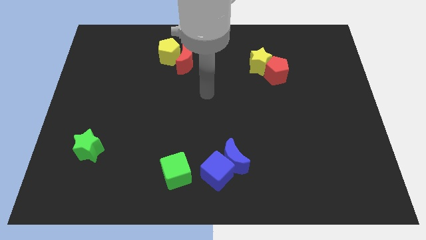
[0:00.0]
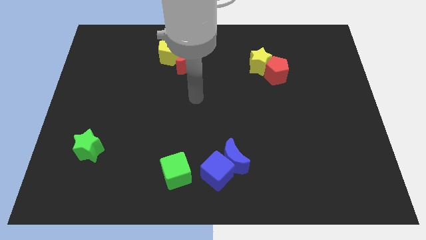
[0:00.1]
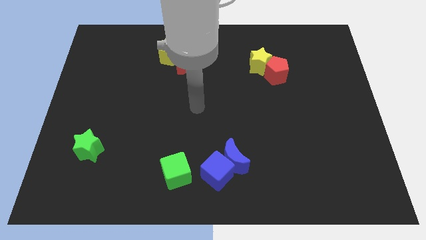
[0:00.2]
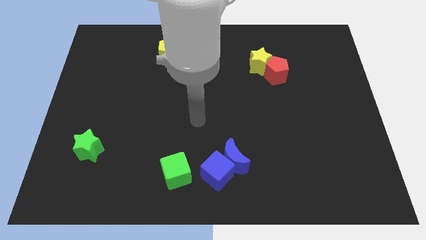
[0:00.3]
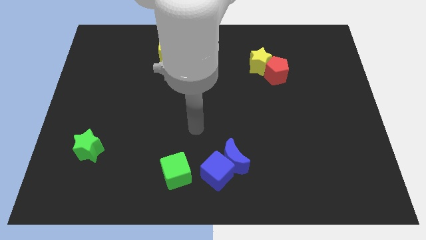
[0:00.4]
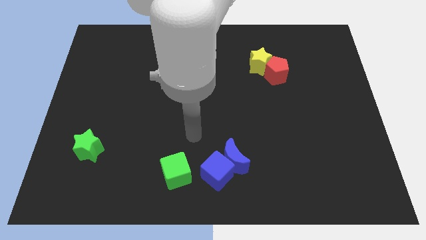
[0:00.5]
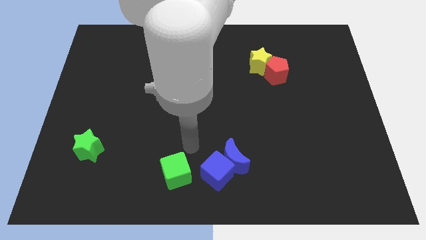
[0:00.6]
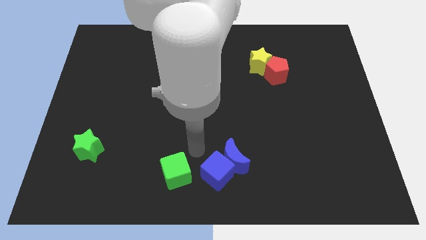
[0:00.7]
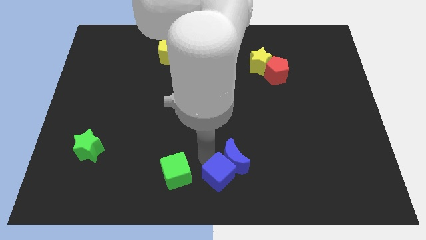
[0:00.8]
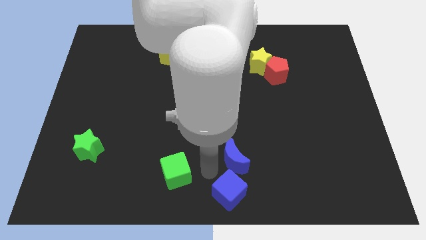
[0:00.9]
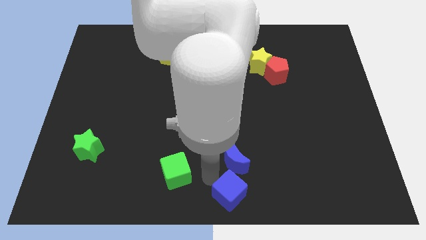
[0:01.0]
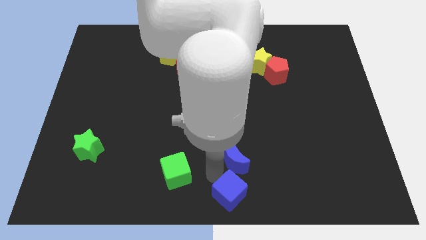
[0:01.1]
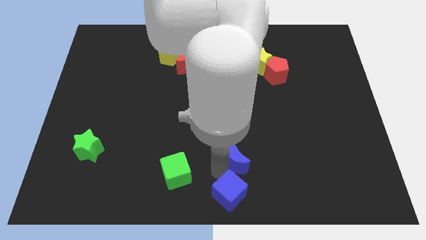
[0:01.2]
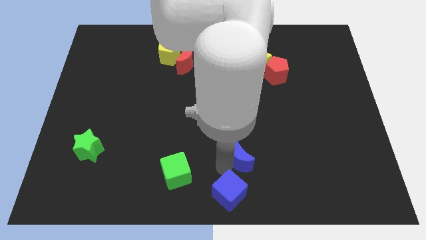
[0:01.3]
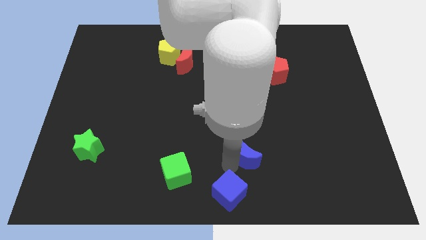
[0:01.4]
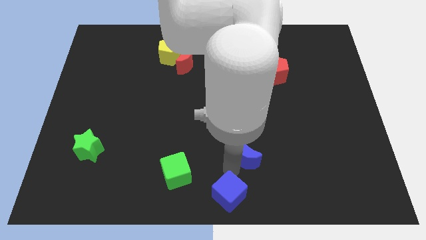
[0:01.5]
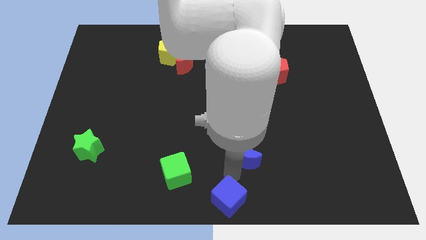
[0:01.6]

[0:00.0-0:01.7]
separate the blue moon from the blue cube

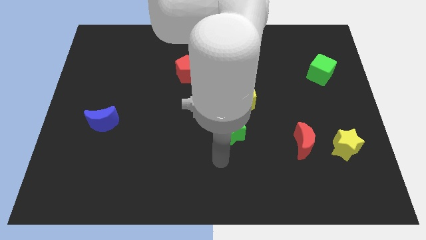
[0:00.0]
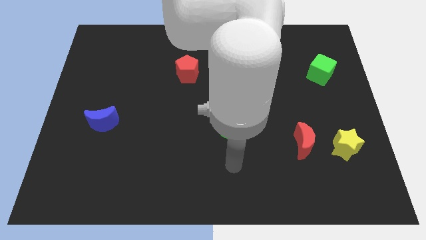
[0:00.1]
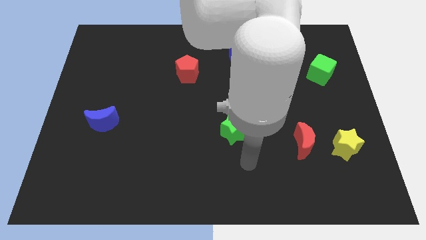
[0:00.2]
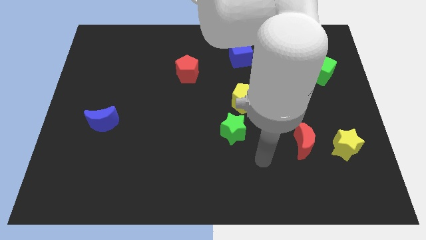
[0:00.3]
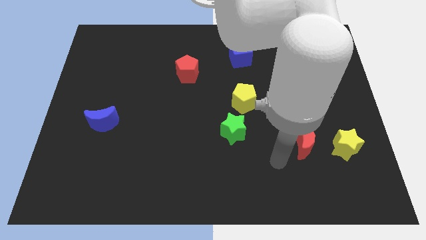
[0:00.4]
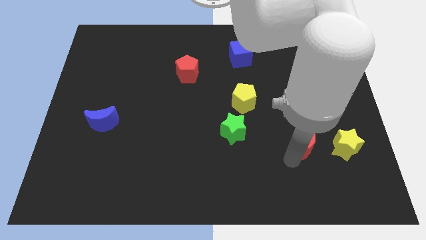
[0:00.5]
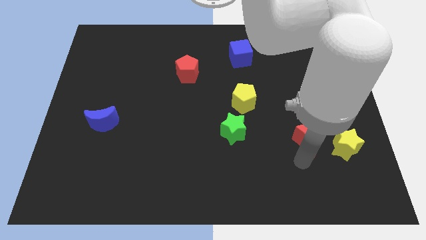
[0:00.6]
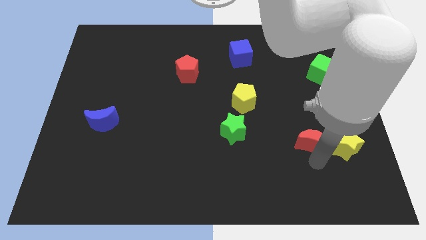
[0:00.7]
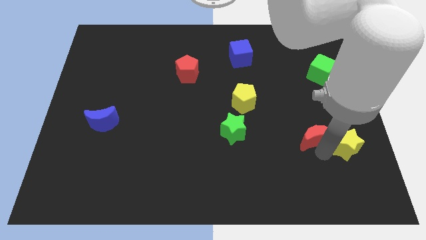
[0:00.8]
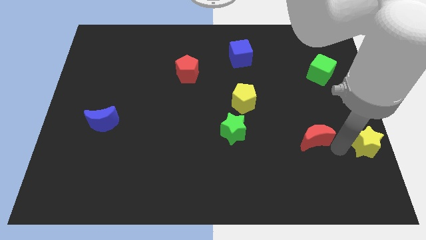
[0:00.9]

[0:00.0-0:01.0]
move the red moon away from the yellow star

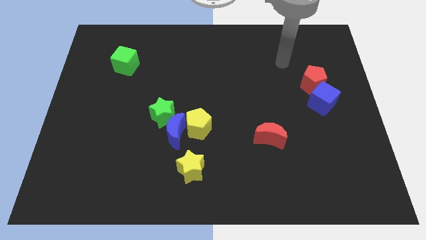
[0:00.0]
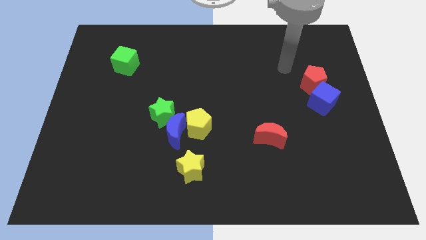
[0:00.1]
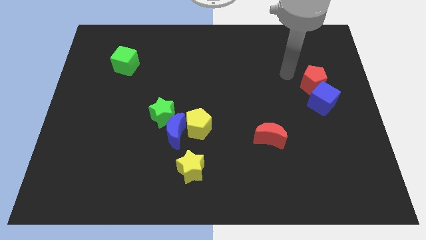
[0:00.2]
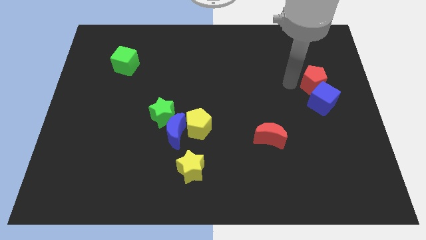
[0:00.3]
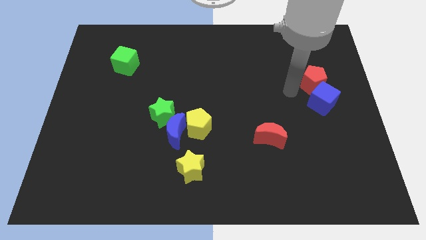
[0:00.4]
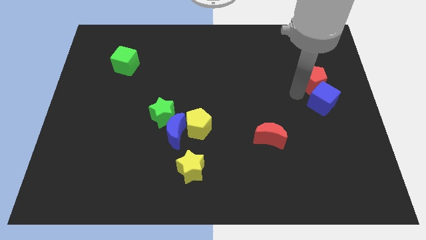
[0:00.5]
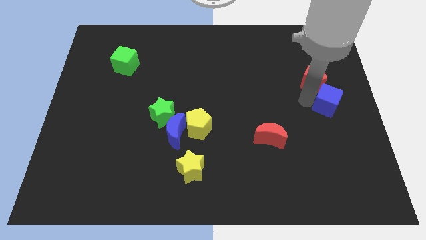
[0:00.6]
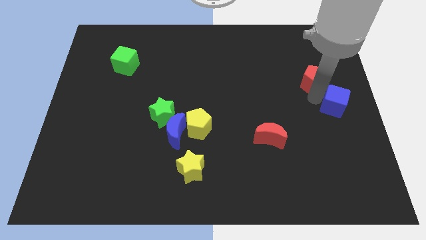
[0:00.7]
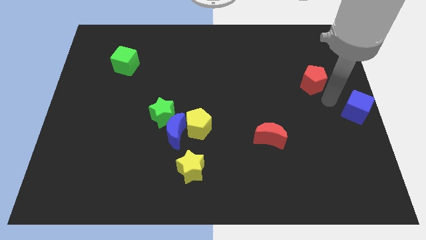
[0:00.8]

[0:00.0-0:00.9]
separate the red pentagon from the blue cube

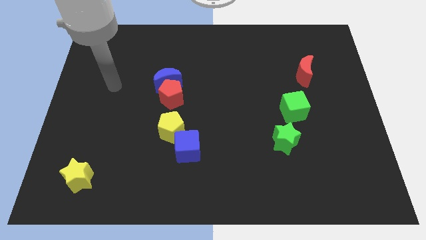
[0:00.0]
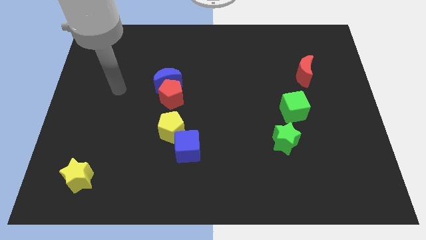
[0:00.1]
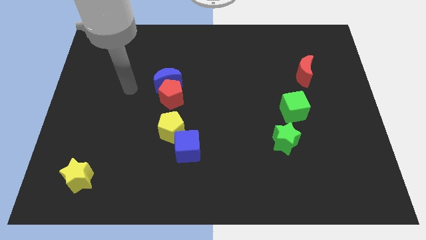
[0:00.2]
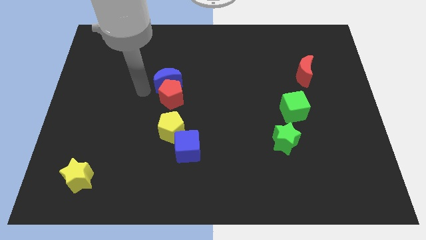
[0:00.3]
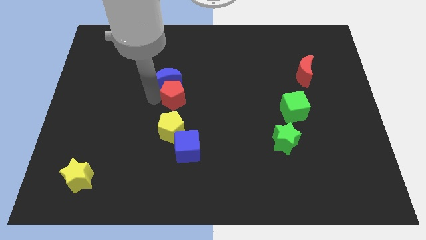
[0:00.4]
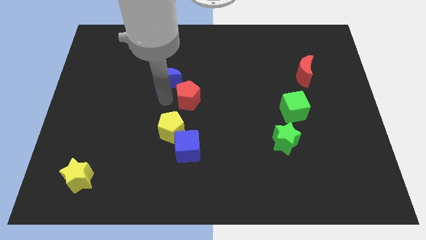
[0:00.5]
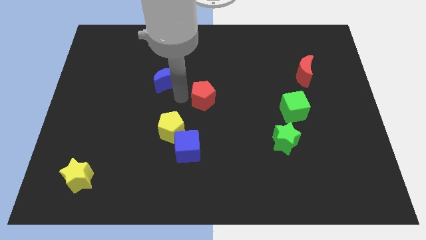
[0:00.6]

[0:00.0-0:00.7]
separate the blue moon from the red pentagon

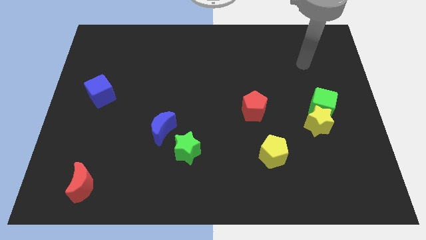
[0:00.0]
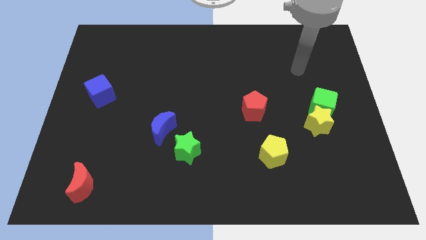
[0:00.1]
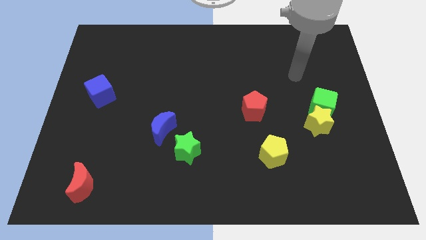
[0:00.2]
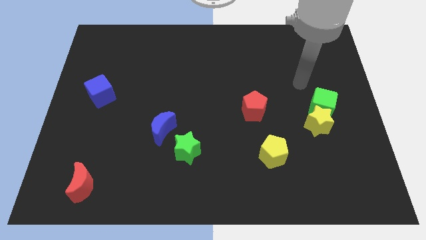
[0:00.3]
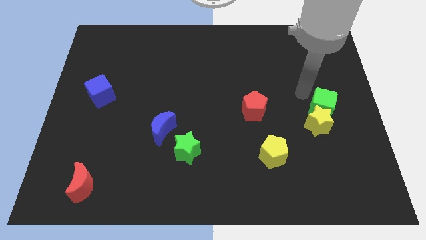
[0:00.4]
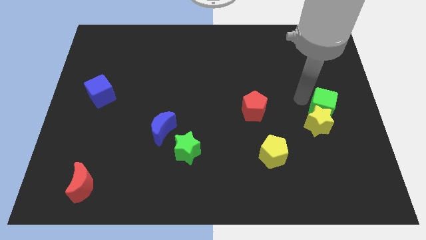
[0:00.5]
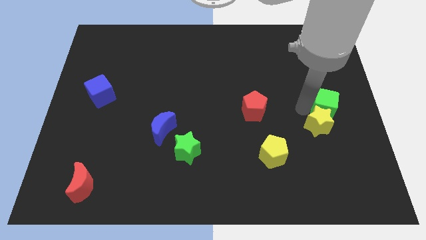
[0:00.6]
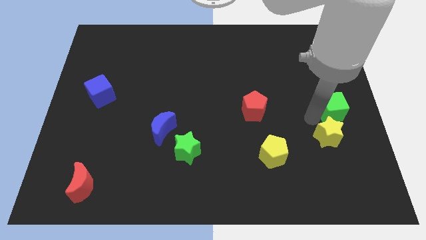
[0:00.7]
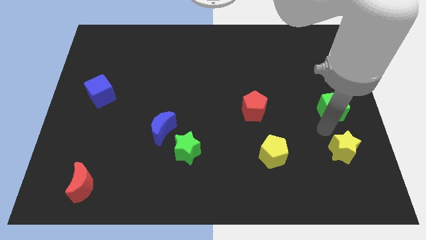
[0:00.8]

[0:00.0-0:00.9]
pull the green cube apart from the yellow star

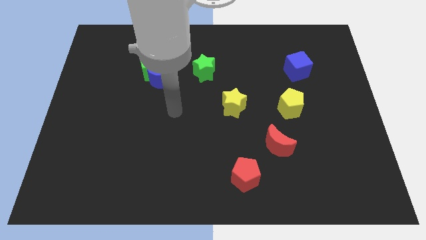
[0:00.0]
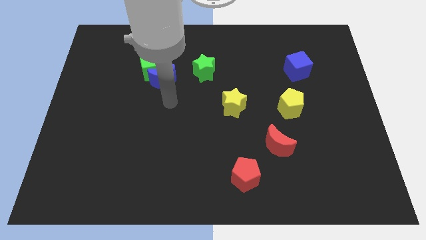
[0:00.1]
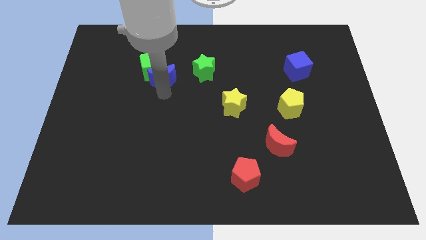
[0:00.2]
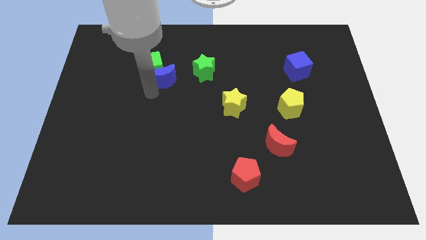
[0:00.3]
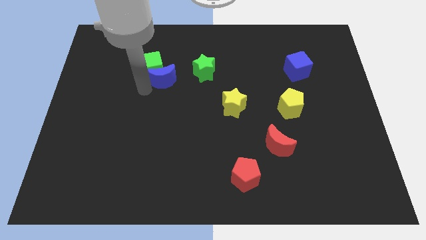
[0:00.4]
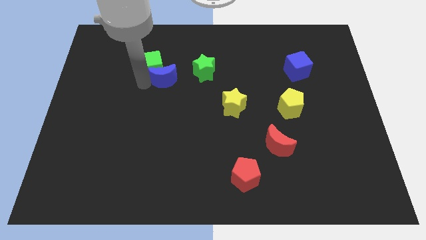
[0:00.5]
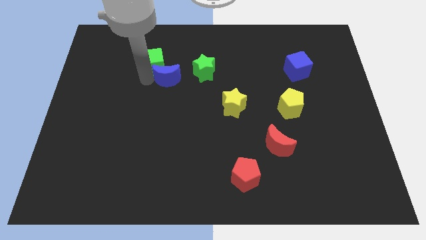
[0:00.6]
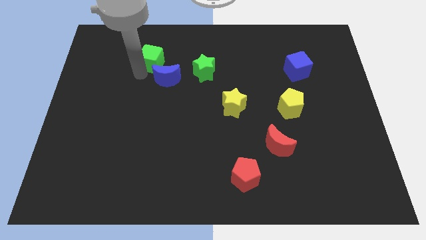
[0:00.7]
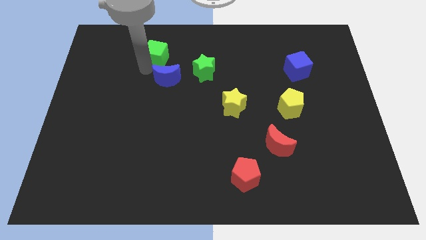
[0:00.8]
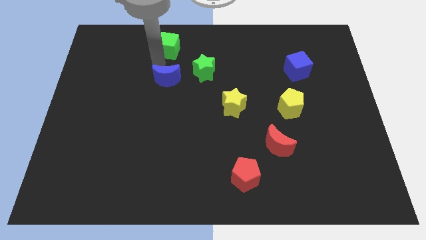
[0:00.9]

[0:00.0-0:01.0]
move the blue moon away from the green cube

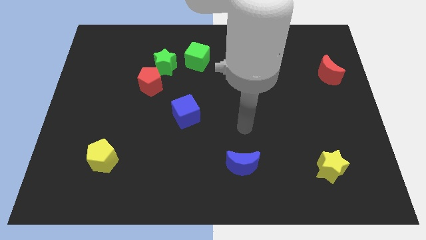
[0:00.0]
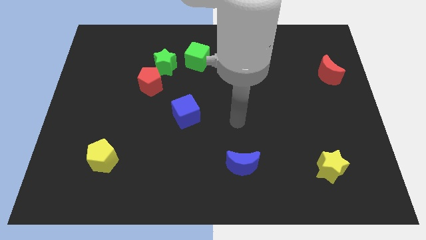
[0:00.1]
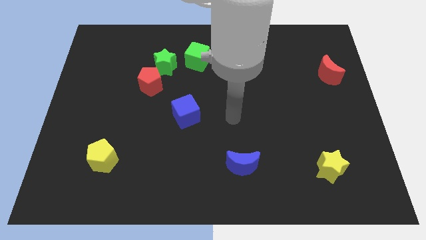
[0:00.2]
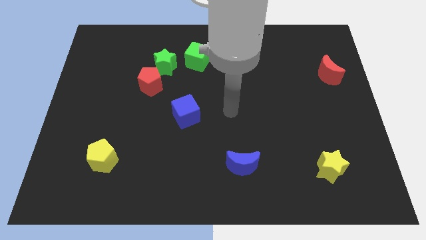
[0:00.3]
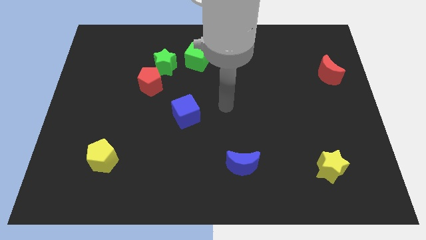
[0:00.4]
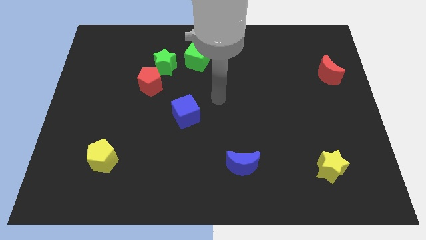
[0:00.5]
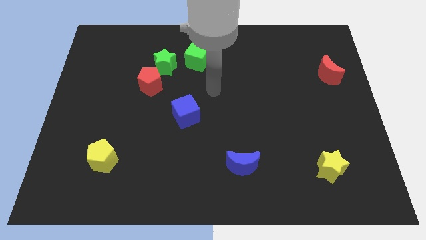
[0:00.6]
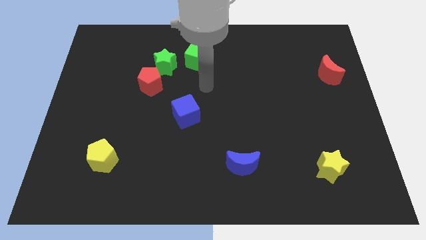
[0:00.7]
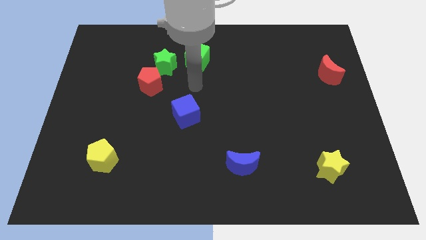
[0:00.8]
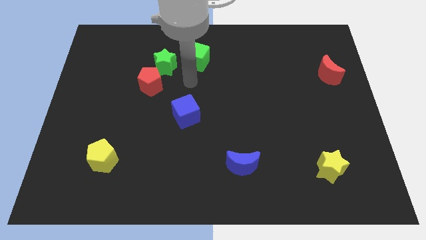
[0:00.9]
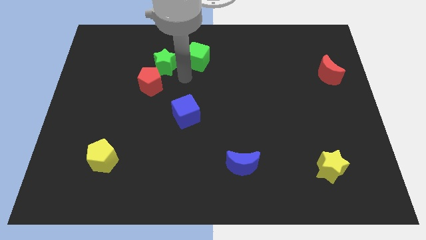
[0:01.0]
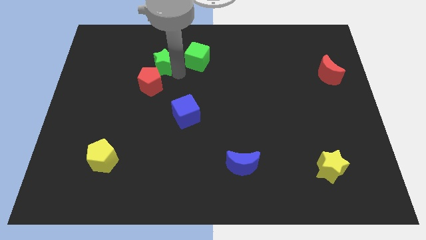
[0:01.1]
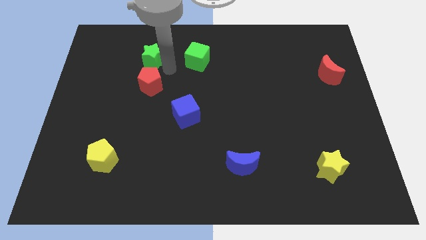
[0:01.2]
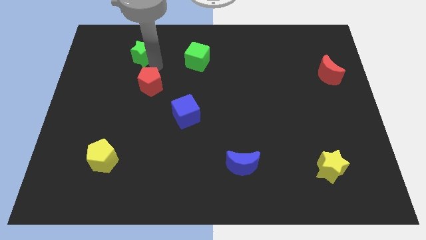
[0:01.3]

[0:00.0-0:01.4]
move the red pentagon away from the green star

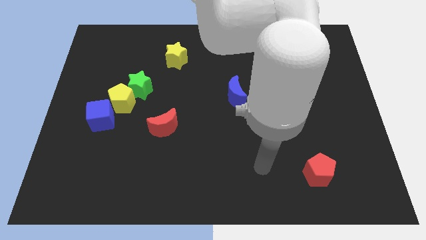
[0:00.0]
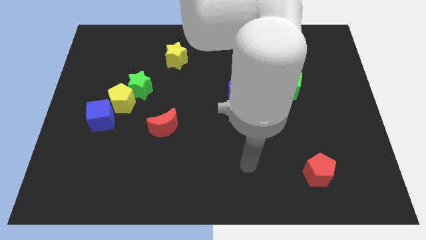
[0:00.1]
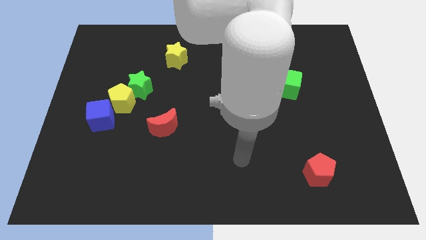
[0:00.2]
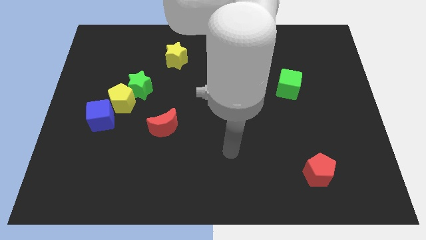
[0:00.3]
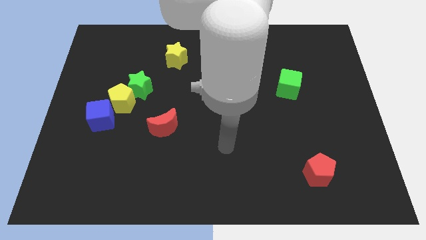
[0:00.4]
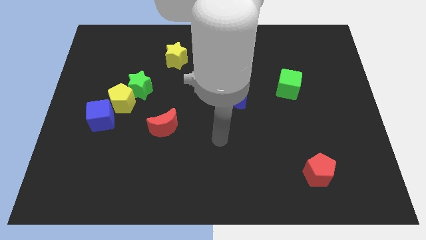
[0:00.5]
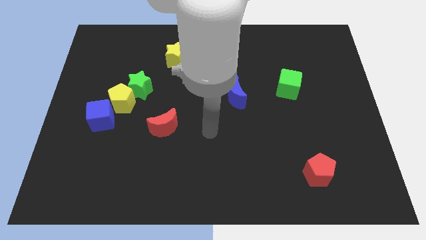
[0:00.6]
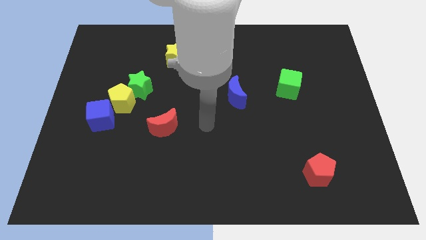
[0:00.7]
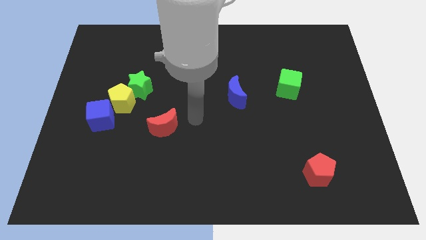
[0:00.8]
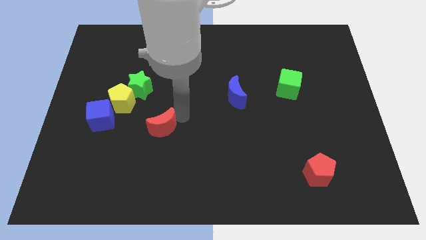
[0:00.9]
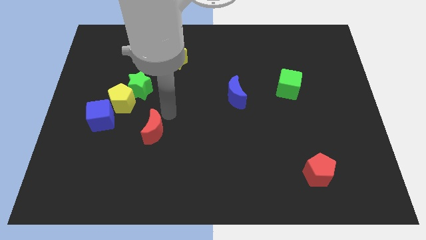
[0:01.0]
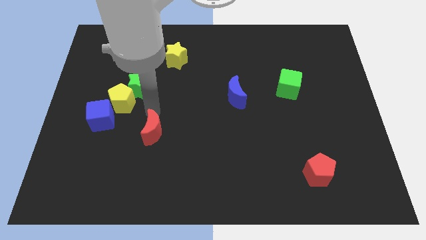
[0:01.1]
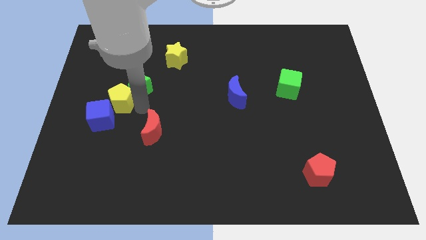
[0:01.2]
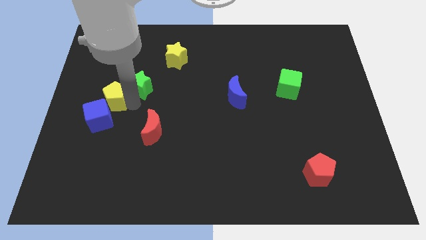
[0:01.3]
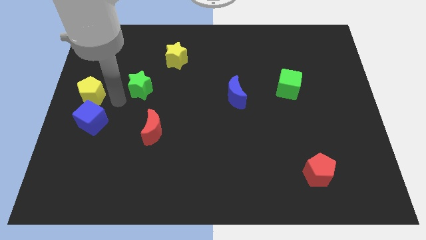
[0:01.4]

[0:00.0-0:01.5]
separate the green star from the yellow pentagon
